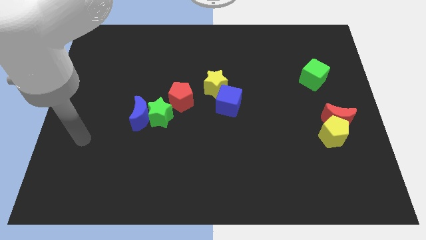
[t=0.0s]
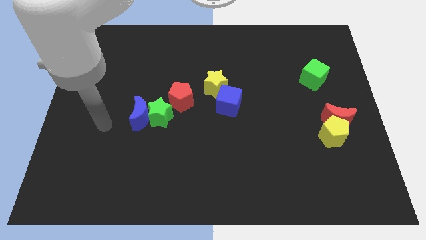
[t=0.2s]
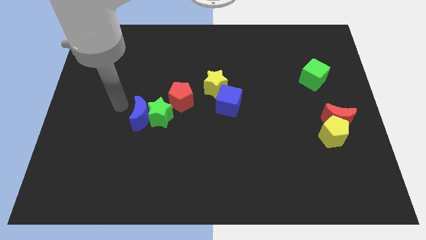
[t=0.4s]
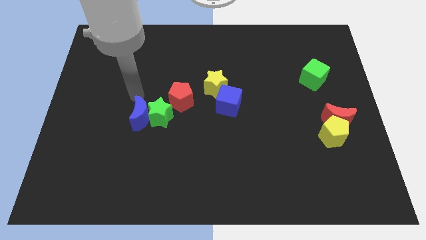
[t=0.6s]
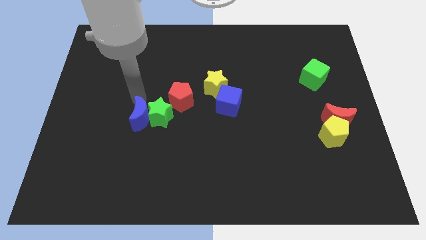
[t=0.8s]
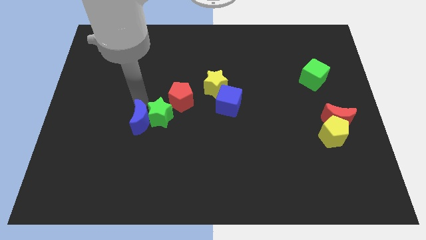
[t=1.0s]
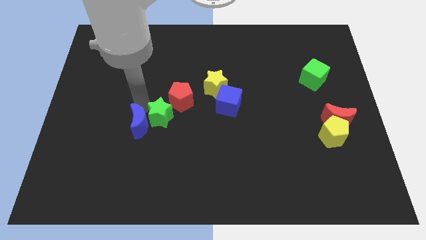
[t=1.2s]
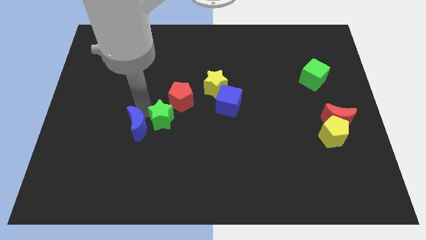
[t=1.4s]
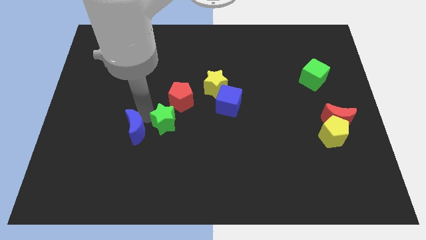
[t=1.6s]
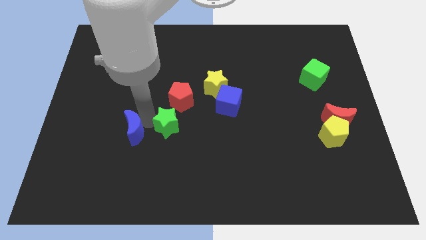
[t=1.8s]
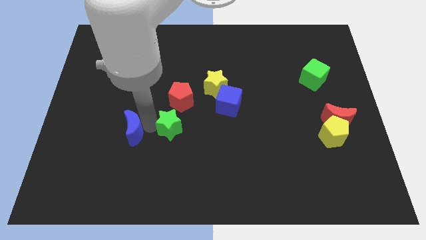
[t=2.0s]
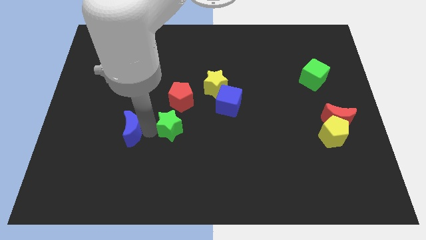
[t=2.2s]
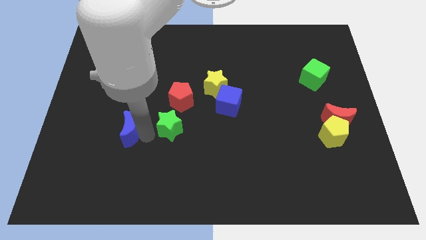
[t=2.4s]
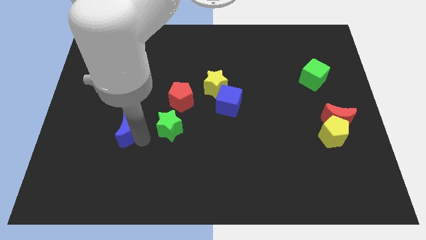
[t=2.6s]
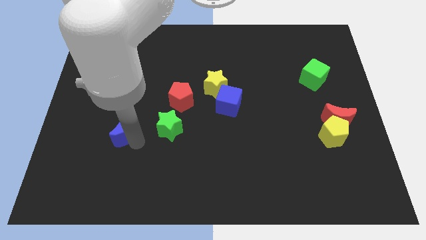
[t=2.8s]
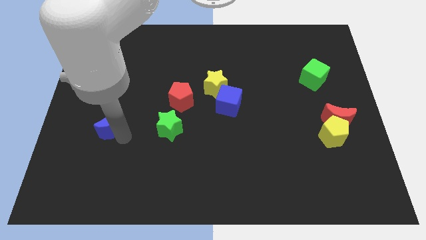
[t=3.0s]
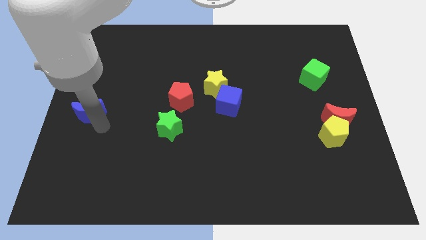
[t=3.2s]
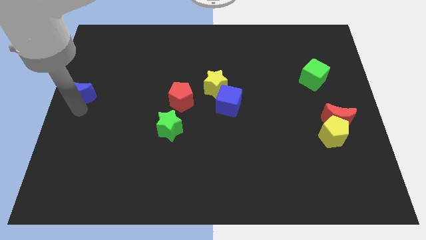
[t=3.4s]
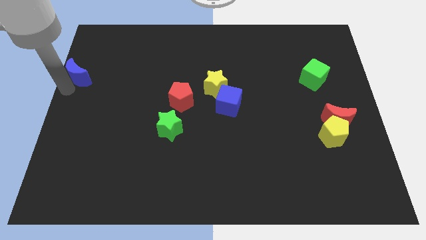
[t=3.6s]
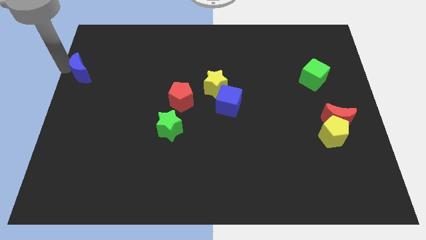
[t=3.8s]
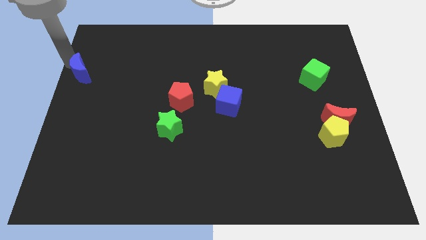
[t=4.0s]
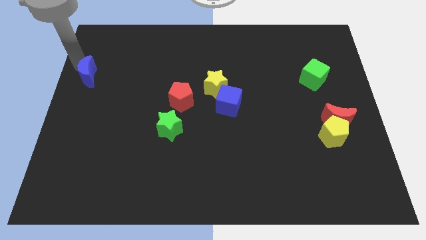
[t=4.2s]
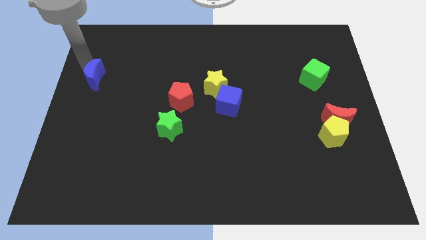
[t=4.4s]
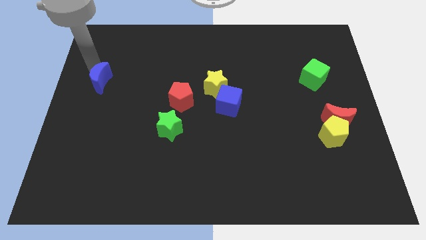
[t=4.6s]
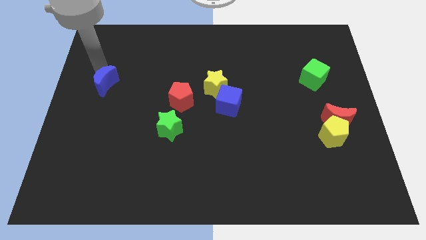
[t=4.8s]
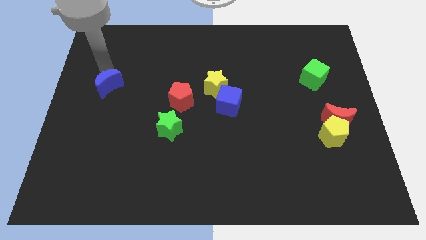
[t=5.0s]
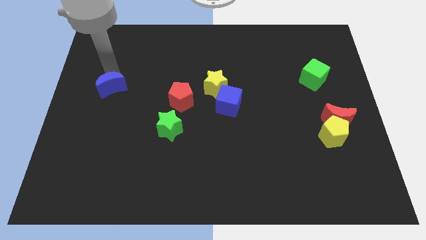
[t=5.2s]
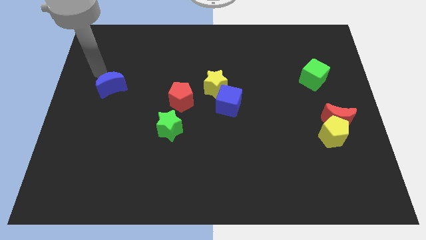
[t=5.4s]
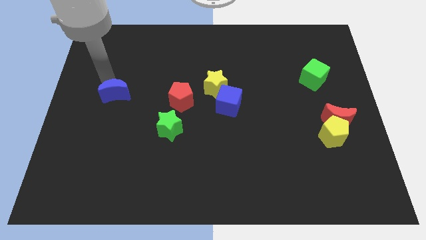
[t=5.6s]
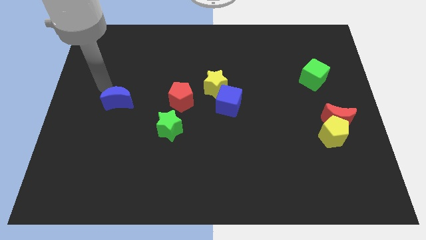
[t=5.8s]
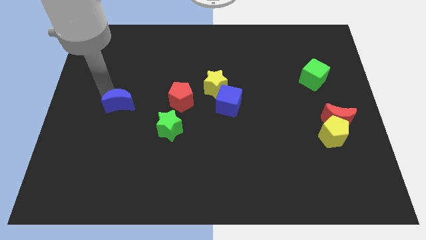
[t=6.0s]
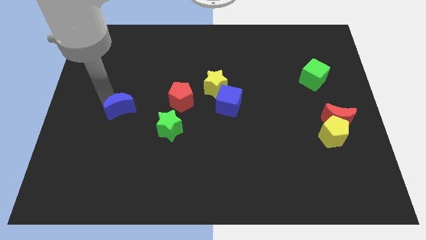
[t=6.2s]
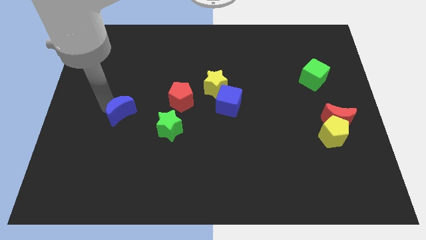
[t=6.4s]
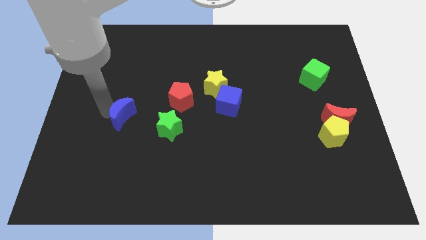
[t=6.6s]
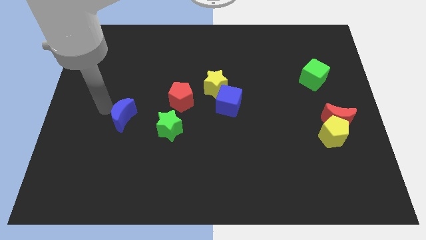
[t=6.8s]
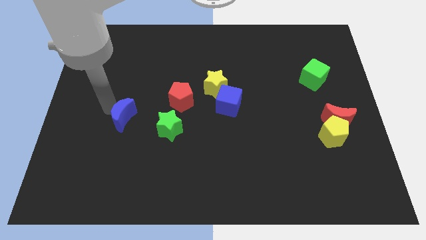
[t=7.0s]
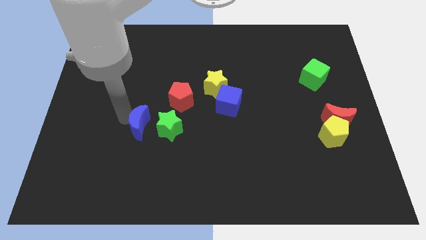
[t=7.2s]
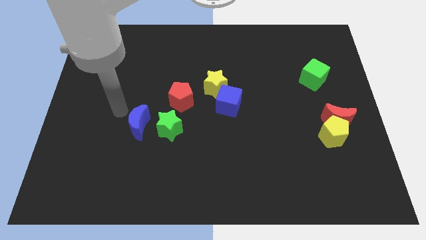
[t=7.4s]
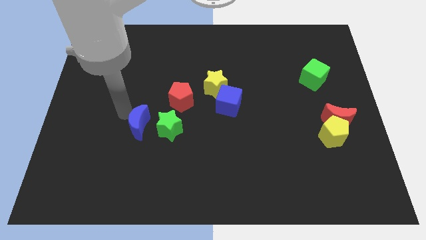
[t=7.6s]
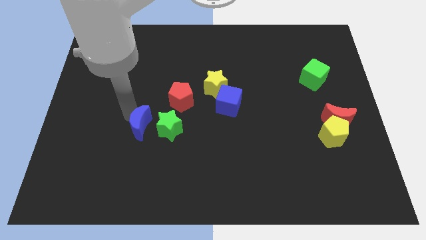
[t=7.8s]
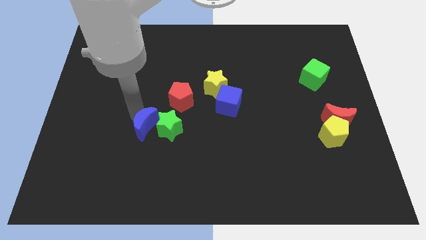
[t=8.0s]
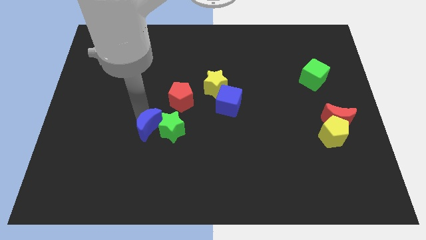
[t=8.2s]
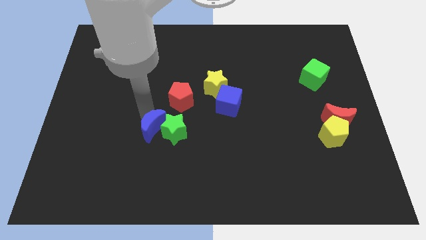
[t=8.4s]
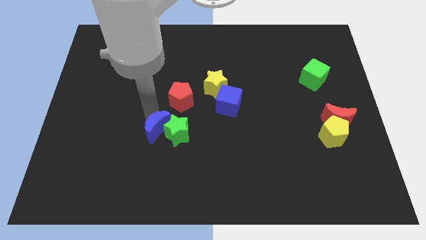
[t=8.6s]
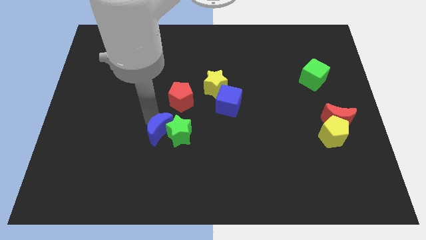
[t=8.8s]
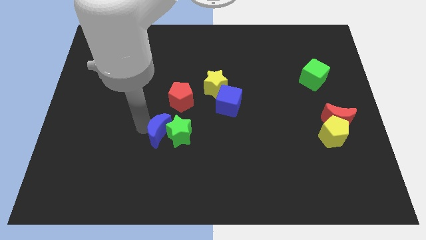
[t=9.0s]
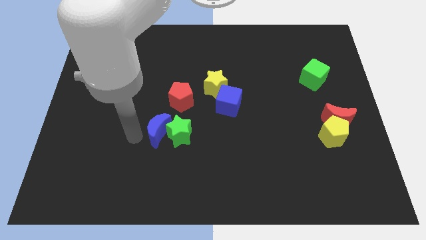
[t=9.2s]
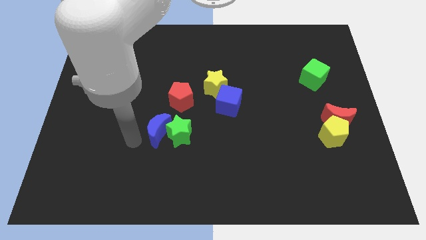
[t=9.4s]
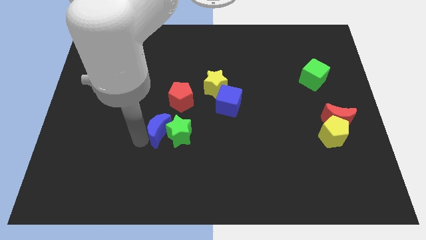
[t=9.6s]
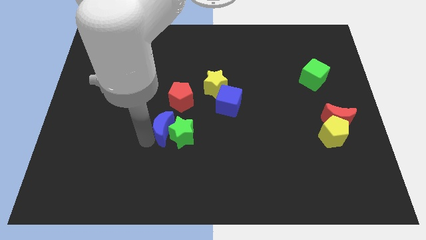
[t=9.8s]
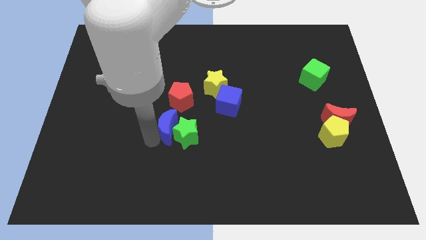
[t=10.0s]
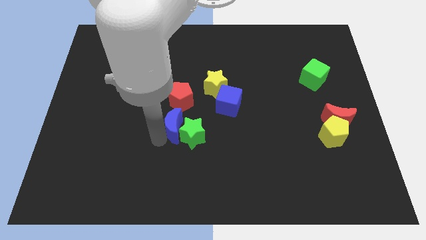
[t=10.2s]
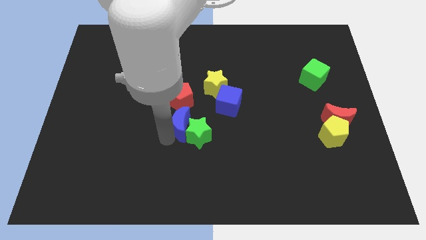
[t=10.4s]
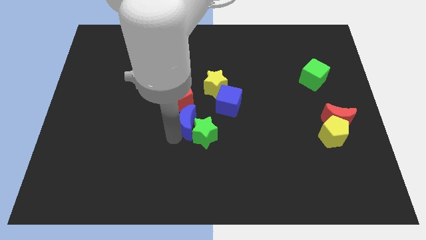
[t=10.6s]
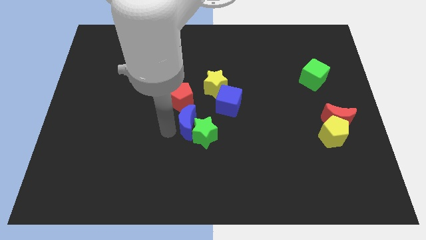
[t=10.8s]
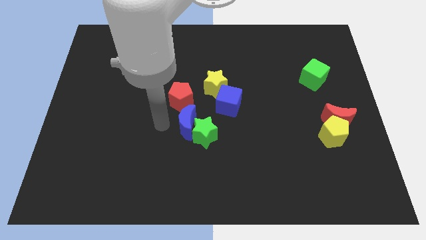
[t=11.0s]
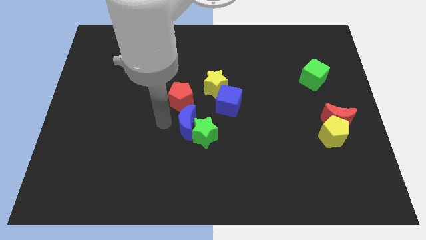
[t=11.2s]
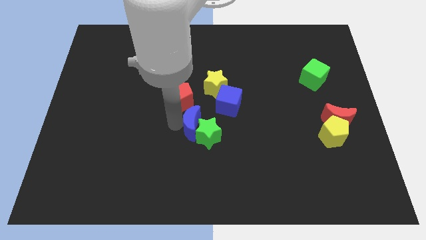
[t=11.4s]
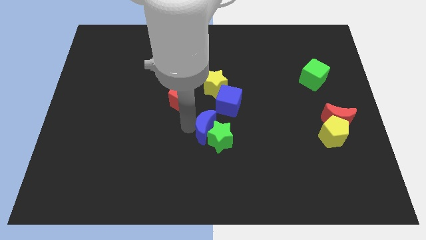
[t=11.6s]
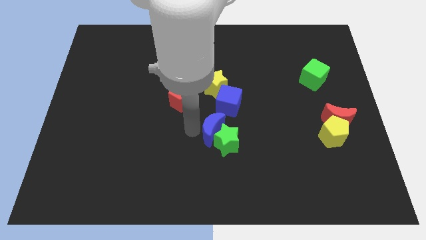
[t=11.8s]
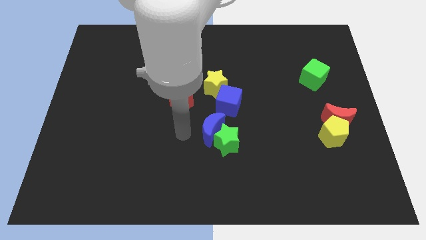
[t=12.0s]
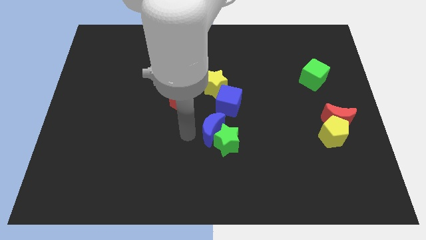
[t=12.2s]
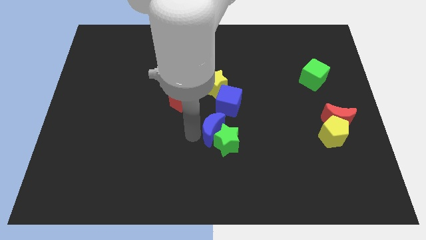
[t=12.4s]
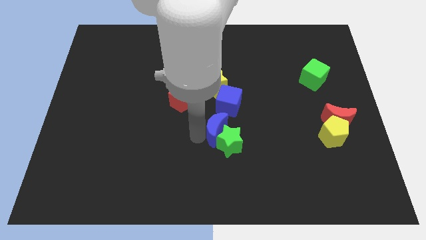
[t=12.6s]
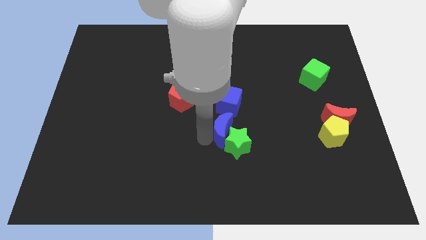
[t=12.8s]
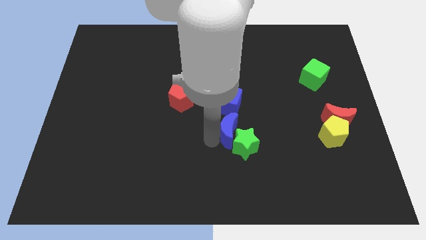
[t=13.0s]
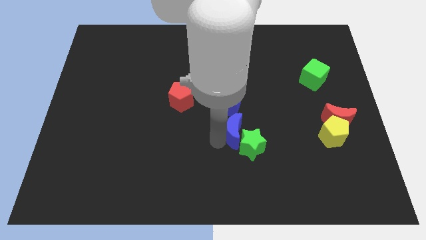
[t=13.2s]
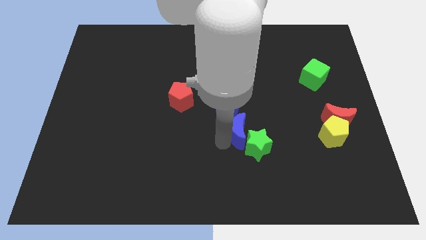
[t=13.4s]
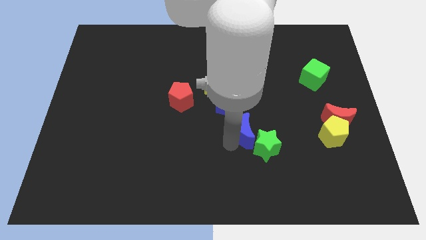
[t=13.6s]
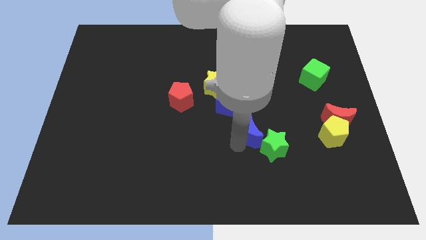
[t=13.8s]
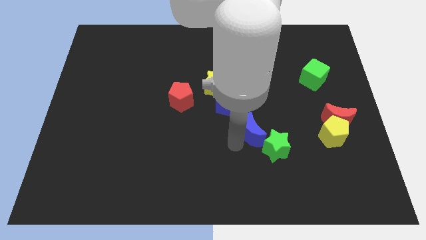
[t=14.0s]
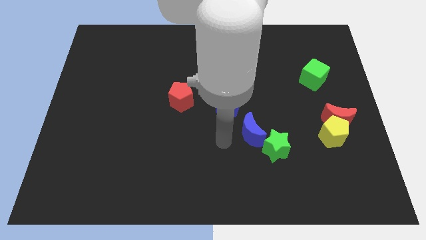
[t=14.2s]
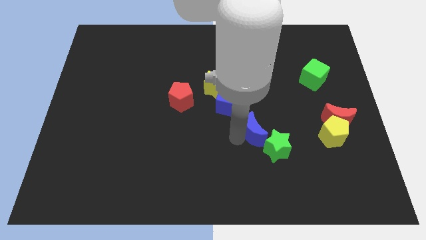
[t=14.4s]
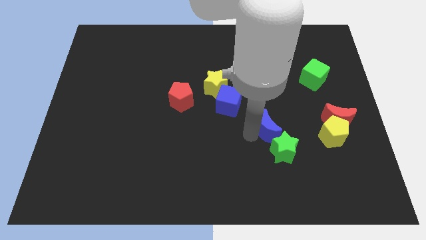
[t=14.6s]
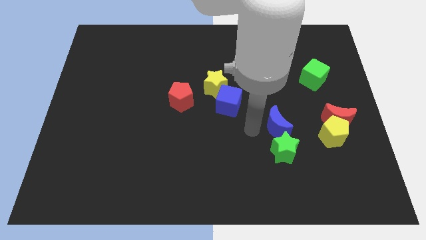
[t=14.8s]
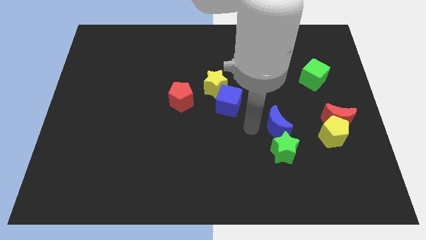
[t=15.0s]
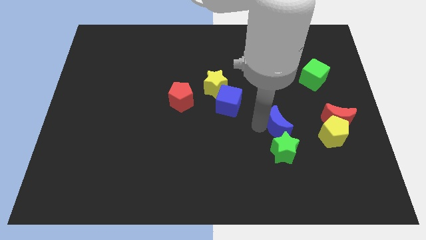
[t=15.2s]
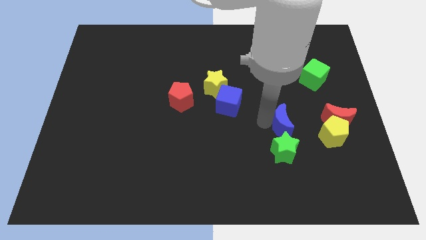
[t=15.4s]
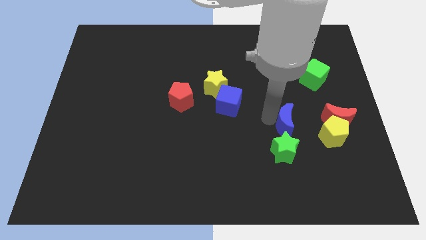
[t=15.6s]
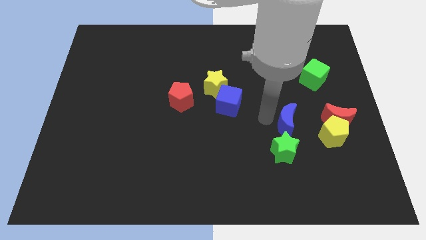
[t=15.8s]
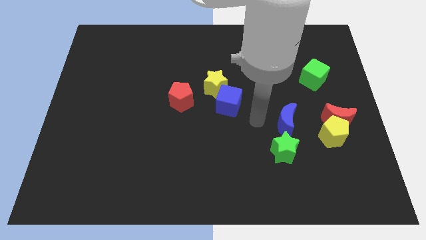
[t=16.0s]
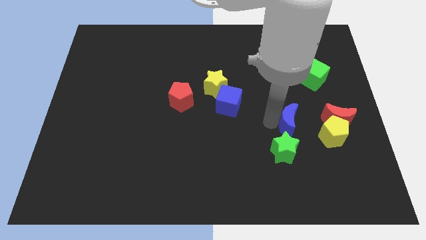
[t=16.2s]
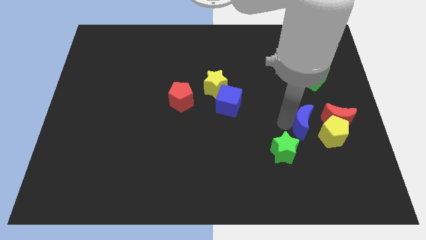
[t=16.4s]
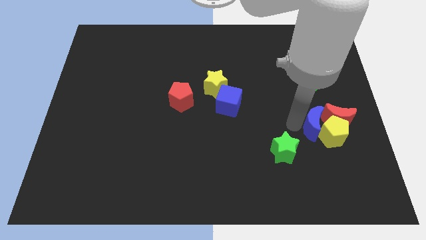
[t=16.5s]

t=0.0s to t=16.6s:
push the blue moon next to the red moon
